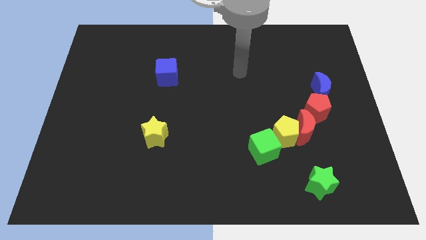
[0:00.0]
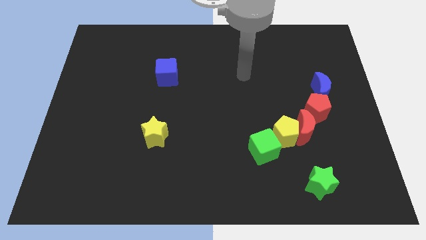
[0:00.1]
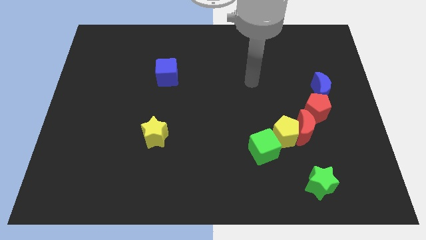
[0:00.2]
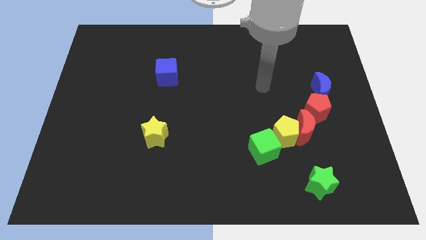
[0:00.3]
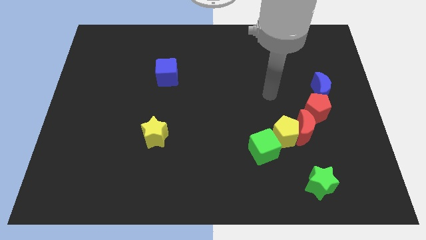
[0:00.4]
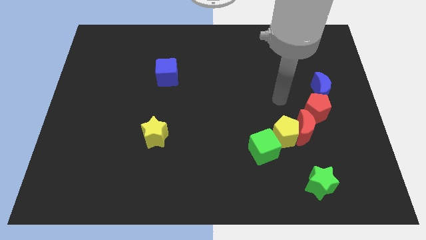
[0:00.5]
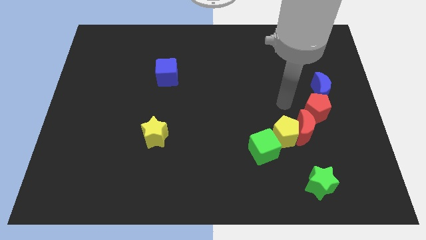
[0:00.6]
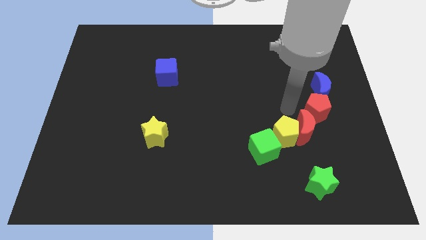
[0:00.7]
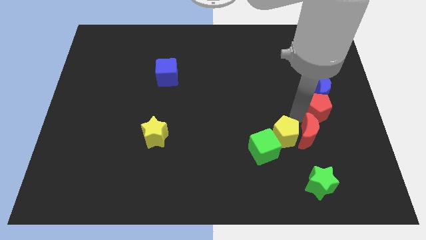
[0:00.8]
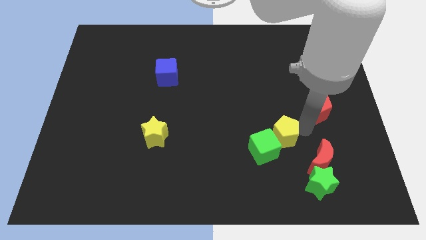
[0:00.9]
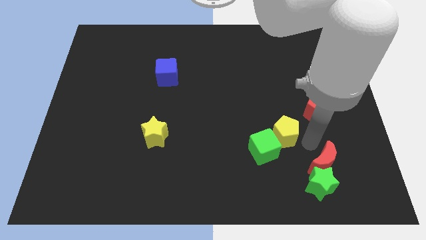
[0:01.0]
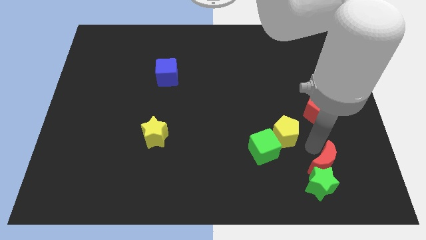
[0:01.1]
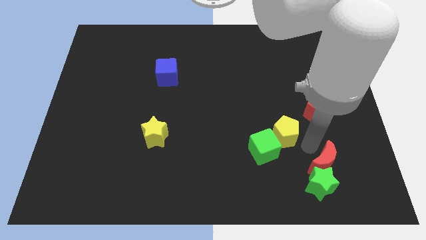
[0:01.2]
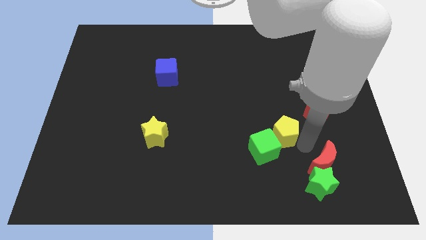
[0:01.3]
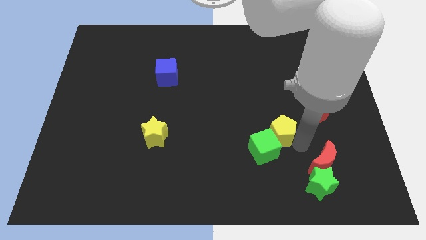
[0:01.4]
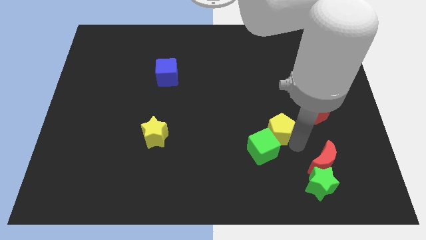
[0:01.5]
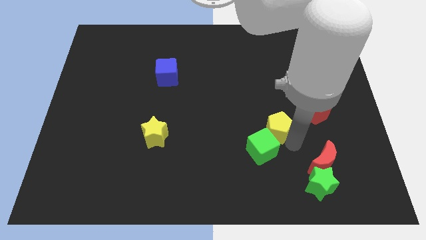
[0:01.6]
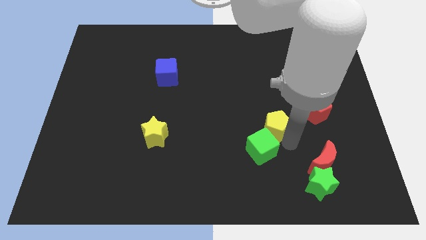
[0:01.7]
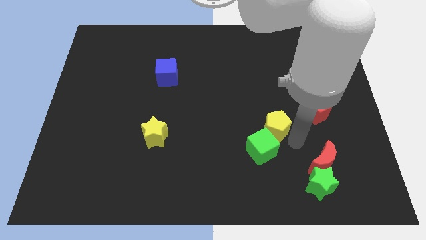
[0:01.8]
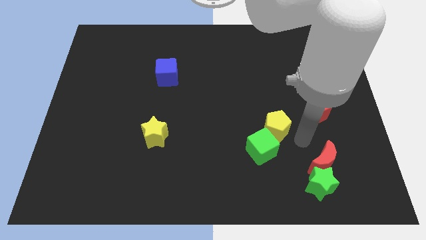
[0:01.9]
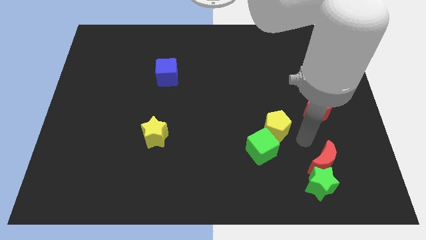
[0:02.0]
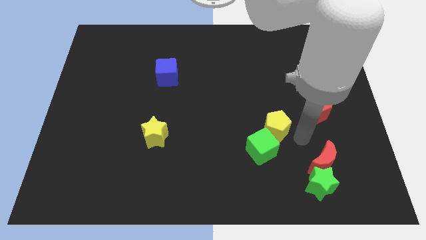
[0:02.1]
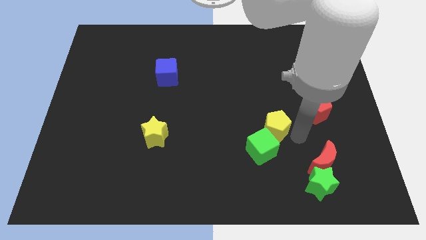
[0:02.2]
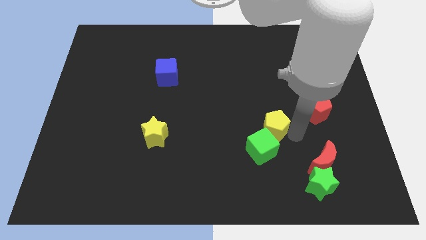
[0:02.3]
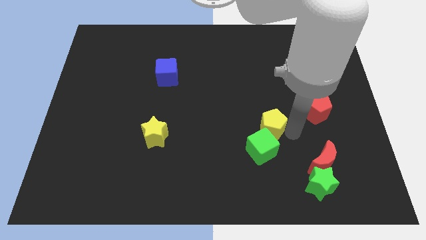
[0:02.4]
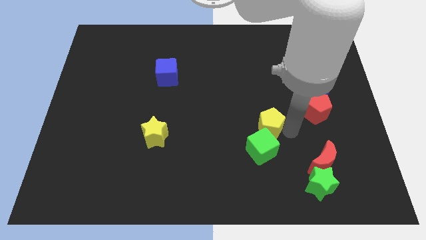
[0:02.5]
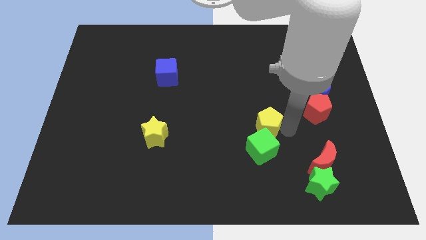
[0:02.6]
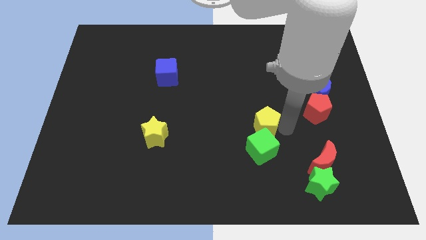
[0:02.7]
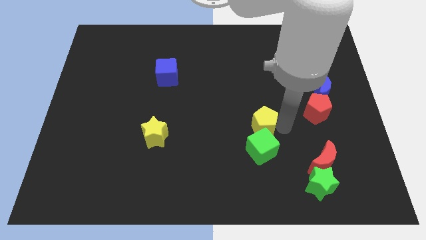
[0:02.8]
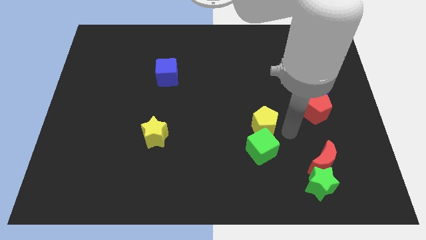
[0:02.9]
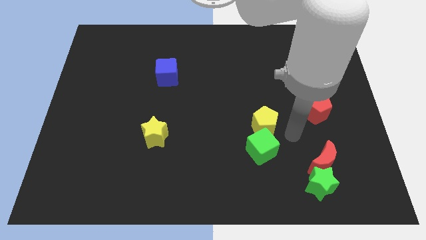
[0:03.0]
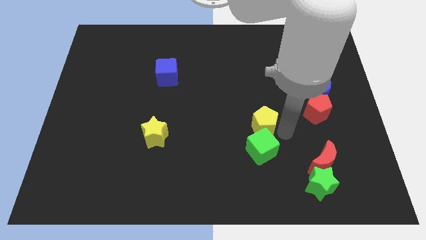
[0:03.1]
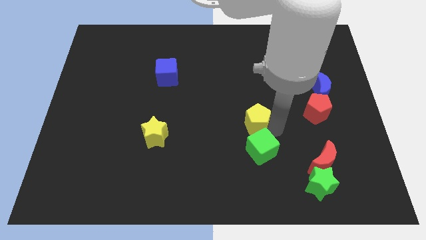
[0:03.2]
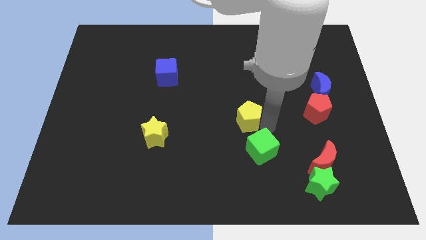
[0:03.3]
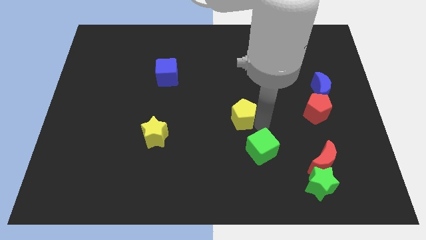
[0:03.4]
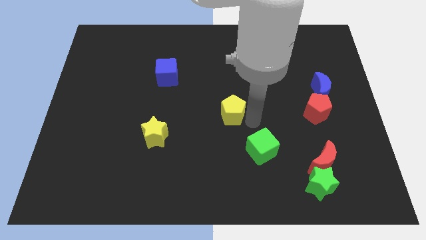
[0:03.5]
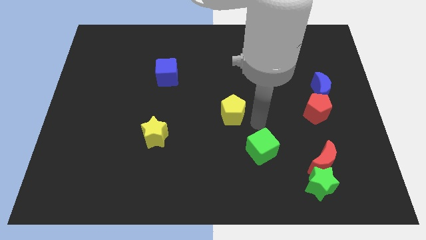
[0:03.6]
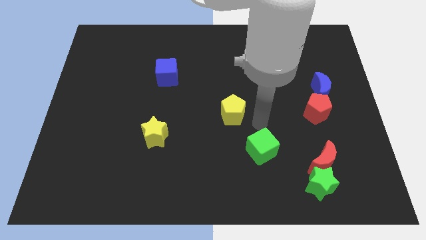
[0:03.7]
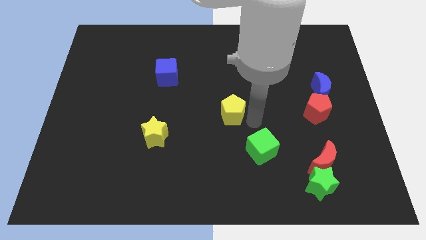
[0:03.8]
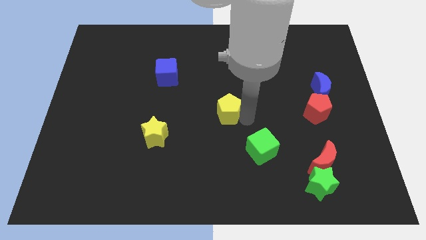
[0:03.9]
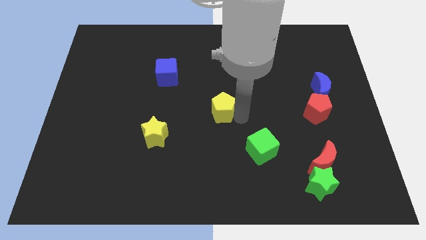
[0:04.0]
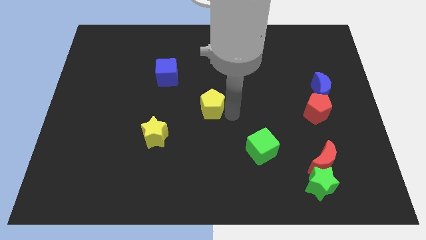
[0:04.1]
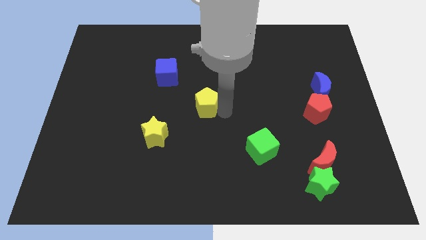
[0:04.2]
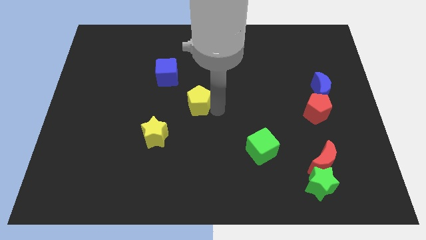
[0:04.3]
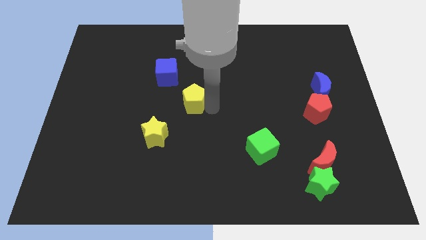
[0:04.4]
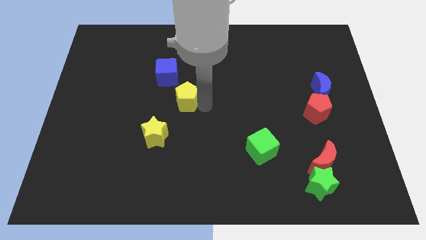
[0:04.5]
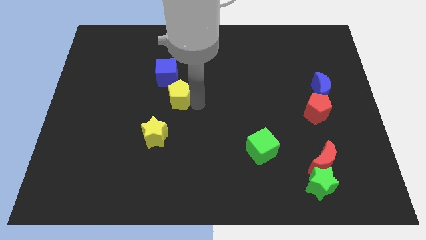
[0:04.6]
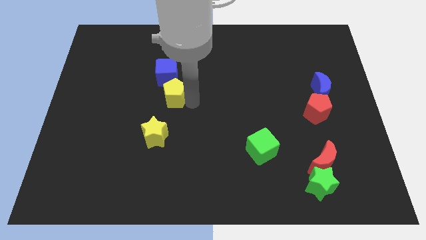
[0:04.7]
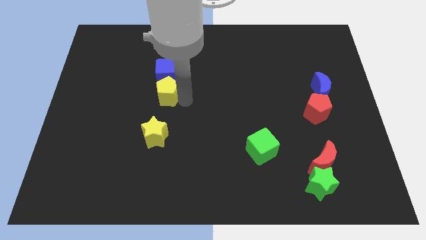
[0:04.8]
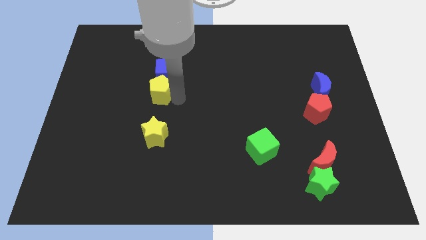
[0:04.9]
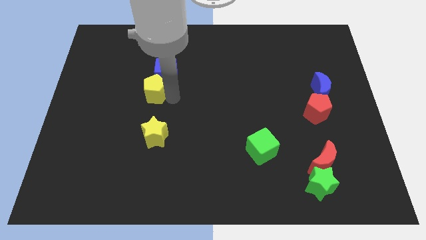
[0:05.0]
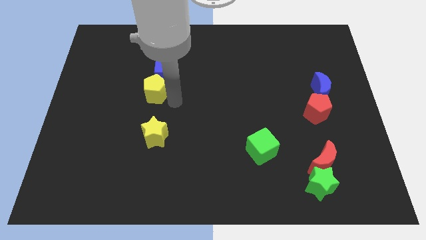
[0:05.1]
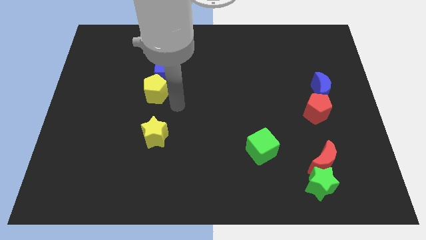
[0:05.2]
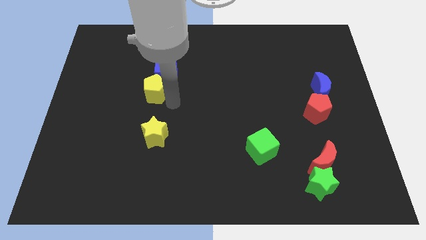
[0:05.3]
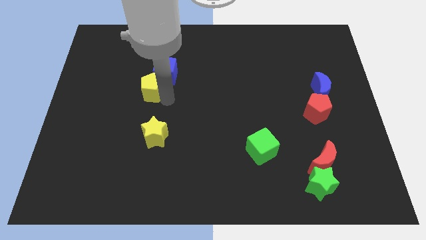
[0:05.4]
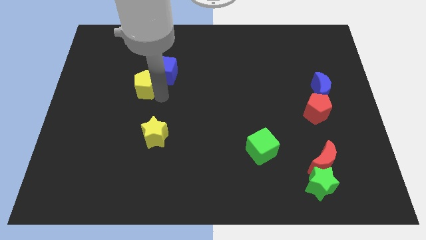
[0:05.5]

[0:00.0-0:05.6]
slide the yellow pentagon to the left of the blue cube

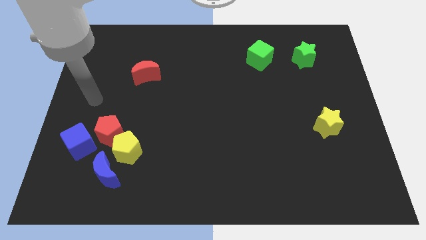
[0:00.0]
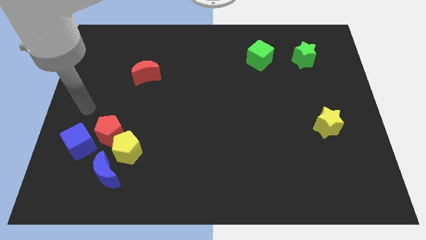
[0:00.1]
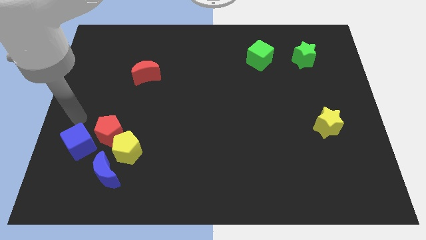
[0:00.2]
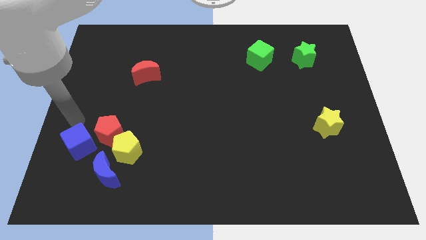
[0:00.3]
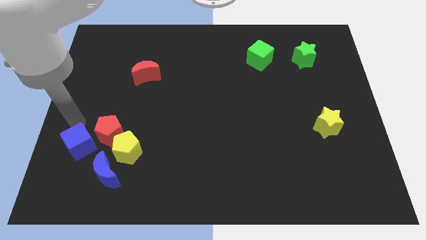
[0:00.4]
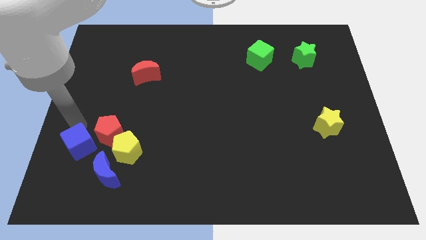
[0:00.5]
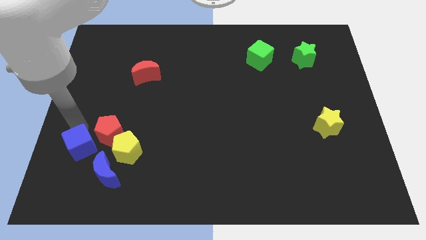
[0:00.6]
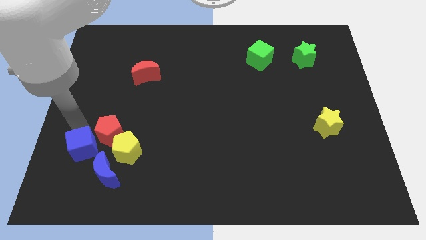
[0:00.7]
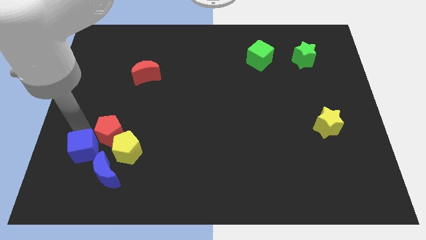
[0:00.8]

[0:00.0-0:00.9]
move the blue cube to the bottom of the red pentagon
